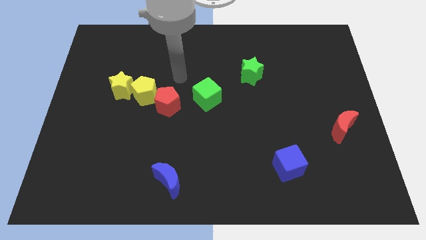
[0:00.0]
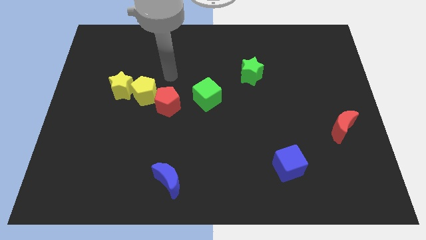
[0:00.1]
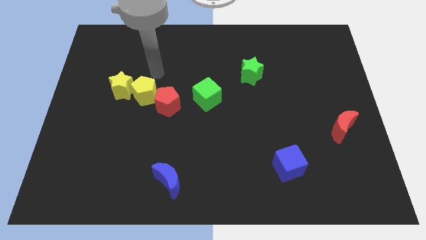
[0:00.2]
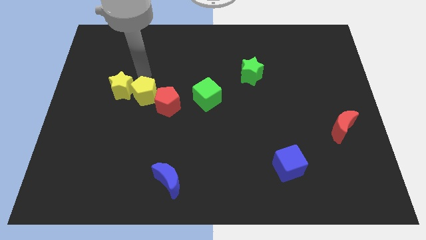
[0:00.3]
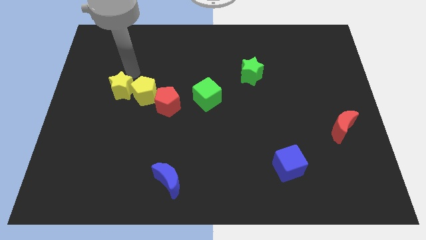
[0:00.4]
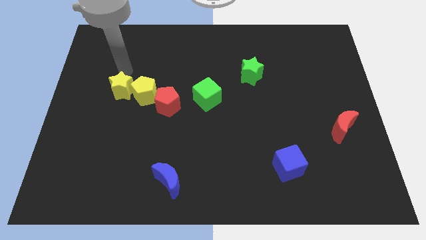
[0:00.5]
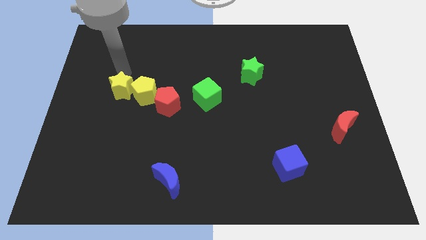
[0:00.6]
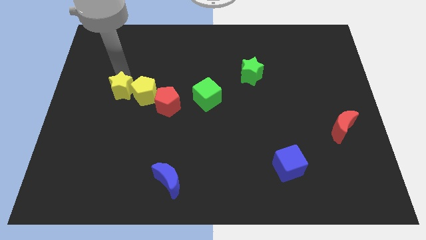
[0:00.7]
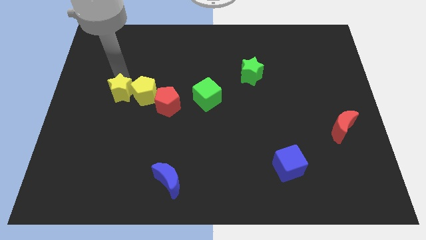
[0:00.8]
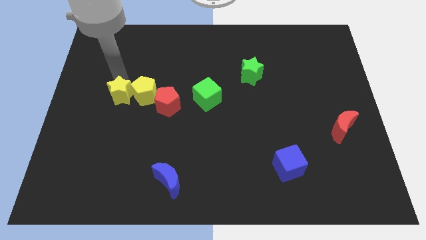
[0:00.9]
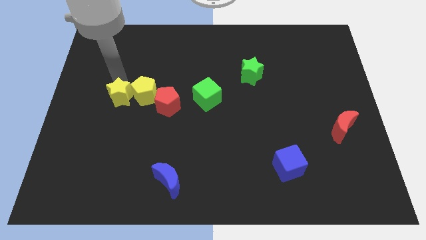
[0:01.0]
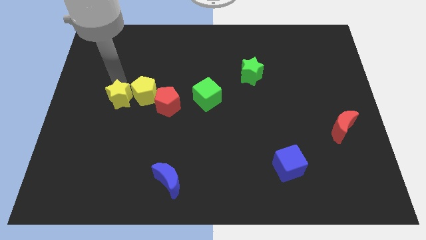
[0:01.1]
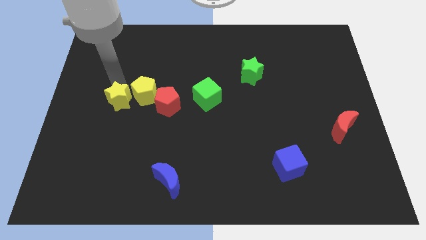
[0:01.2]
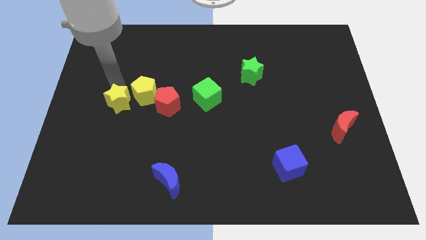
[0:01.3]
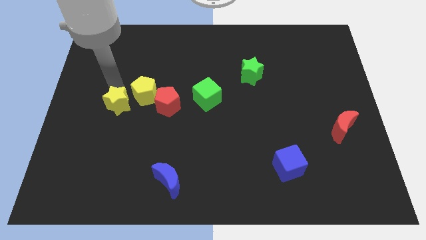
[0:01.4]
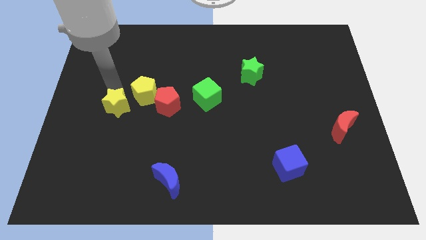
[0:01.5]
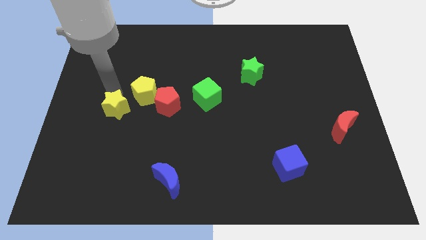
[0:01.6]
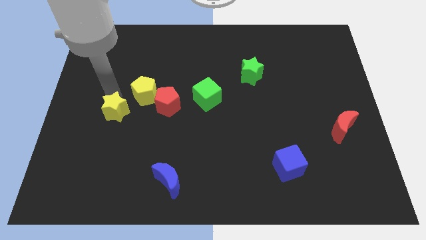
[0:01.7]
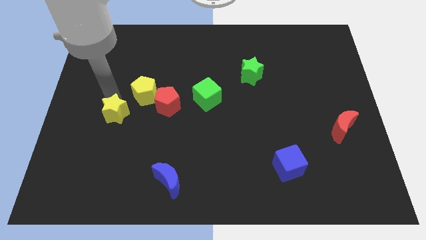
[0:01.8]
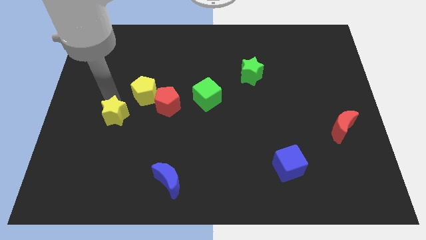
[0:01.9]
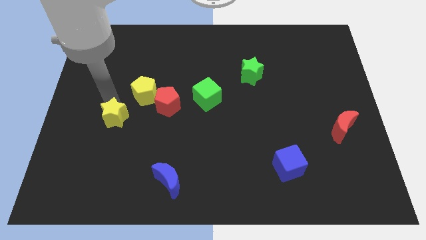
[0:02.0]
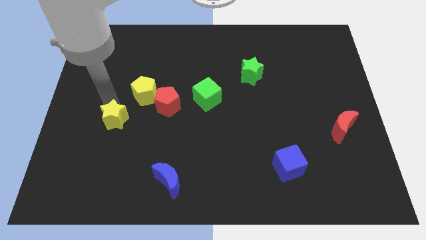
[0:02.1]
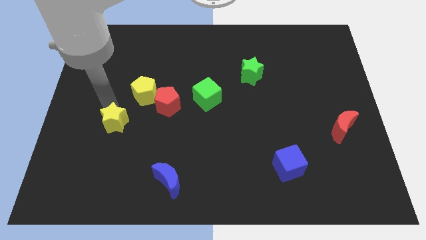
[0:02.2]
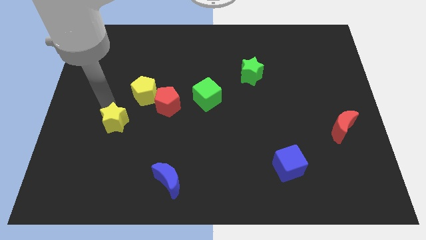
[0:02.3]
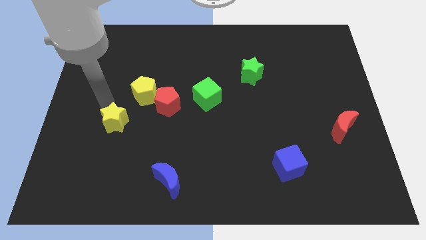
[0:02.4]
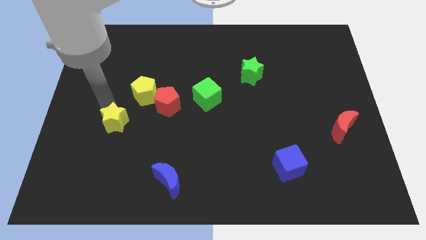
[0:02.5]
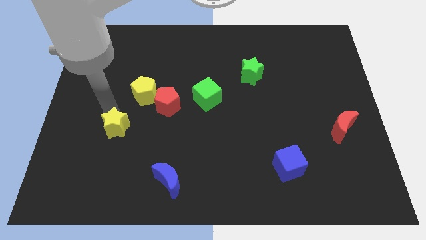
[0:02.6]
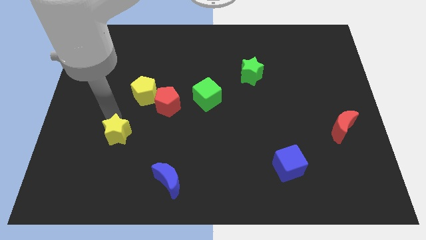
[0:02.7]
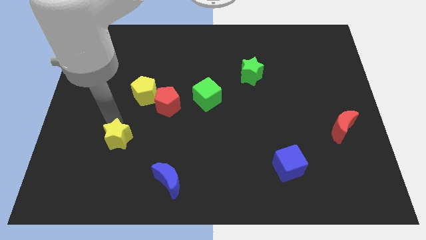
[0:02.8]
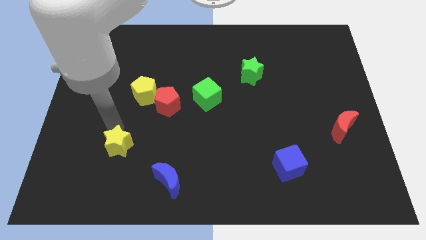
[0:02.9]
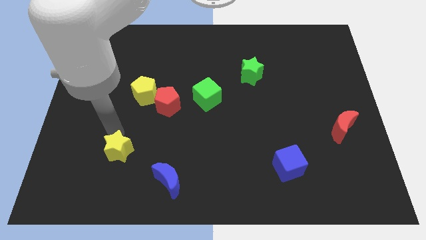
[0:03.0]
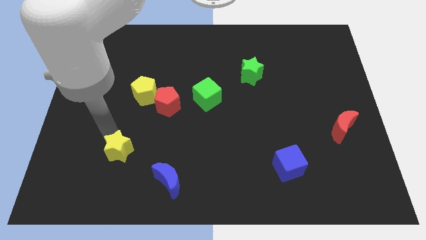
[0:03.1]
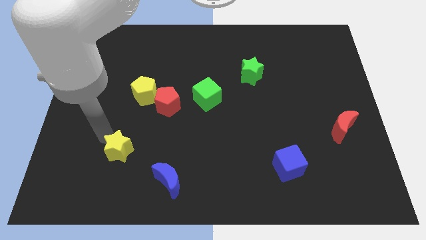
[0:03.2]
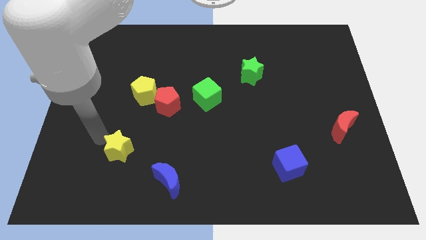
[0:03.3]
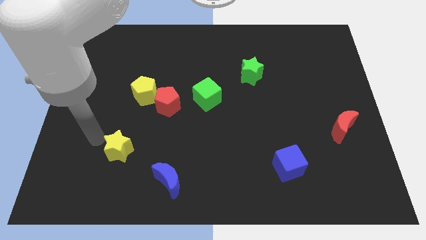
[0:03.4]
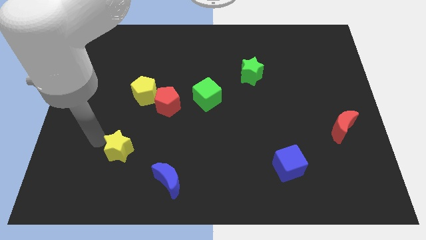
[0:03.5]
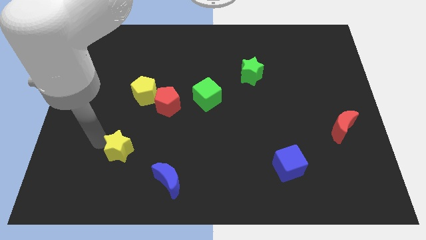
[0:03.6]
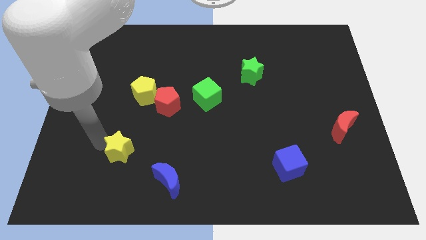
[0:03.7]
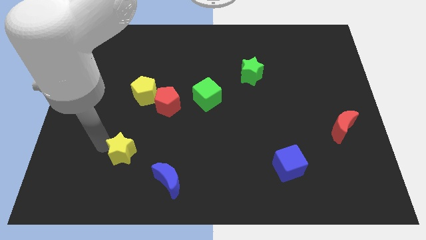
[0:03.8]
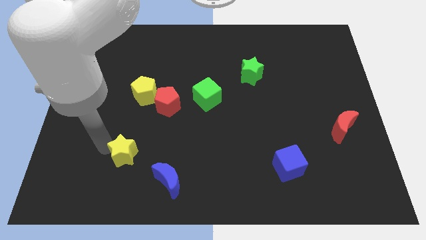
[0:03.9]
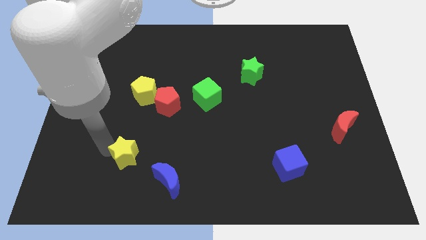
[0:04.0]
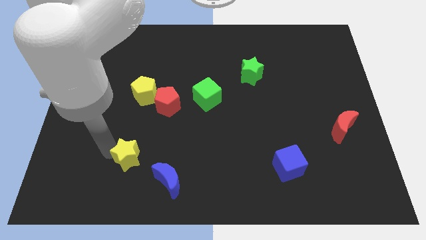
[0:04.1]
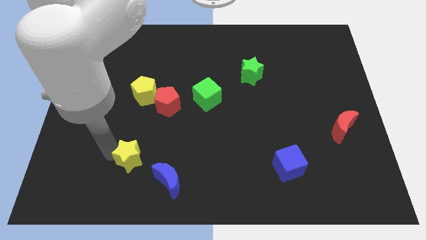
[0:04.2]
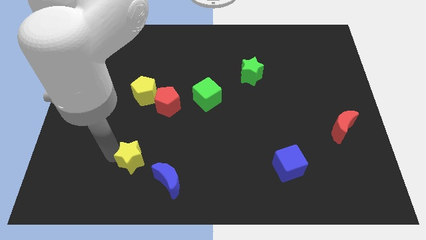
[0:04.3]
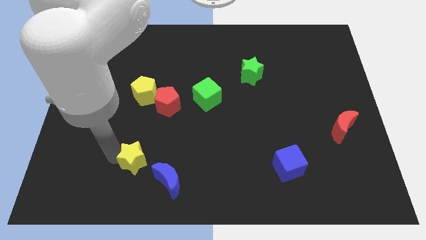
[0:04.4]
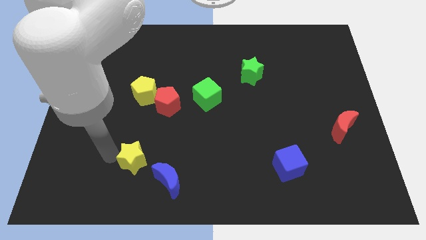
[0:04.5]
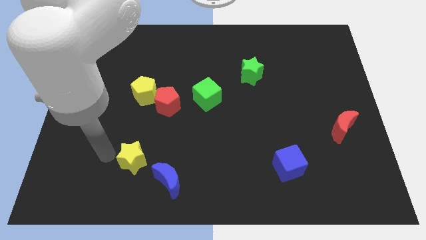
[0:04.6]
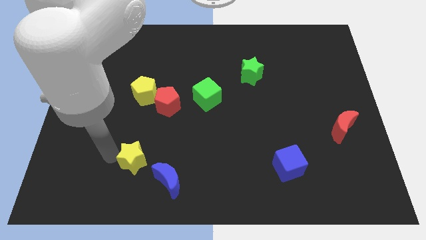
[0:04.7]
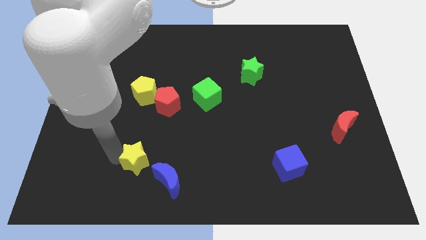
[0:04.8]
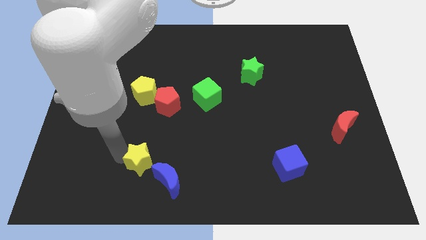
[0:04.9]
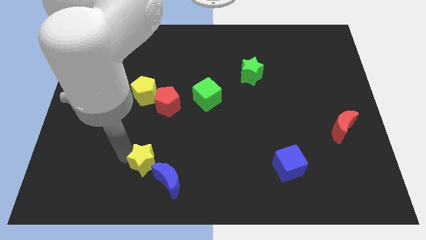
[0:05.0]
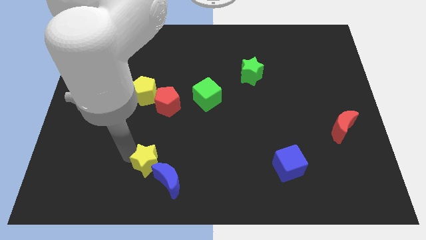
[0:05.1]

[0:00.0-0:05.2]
push the yellow star to the blue moon

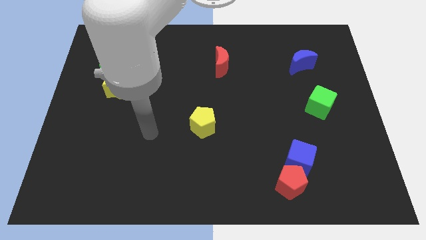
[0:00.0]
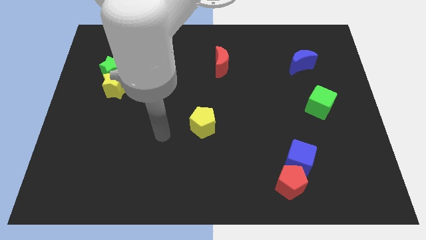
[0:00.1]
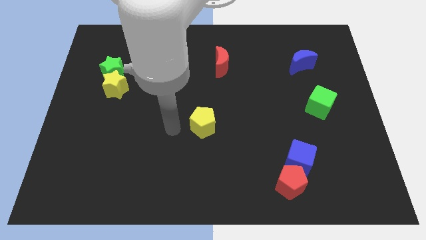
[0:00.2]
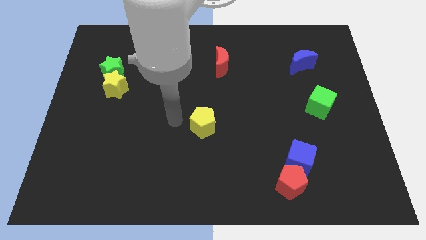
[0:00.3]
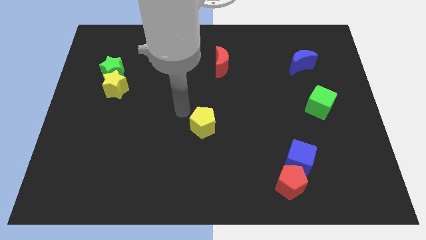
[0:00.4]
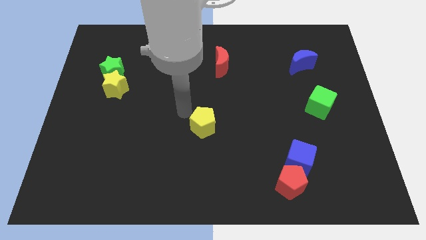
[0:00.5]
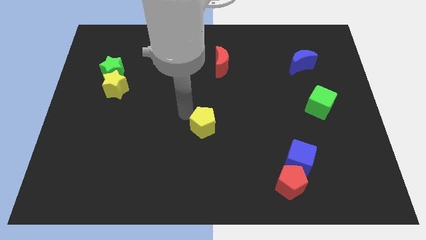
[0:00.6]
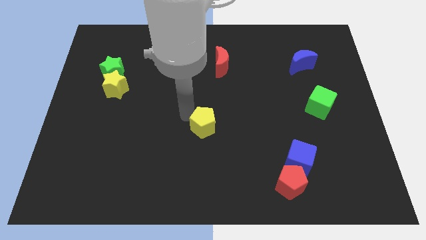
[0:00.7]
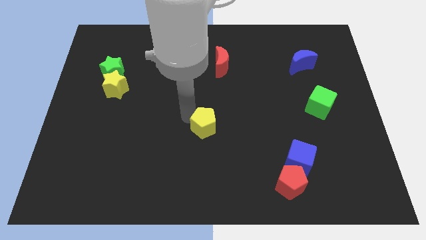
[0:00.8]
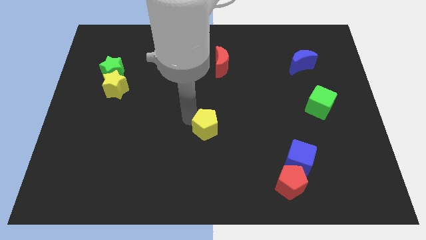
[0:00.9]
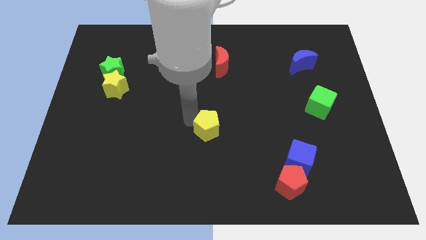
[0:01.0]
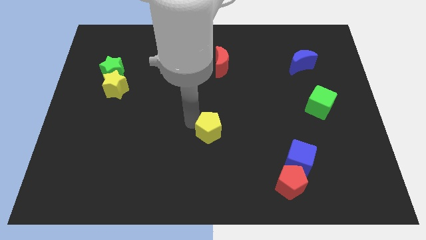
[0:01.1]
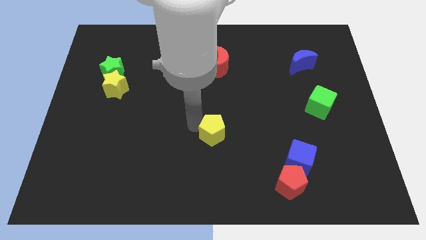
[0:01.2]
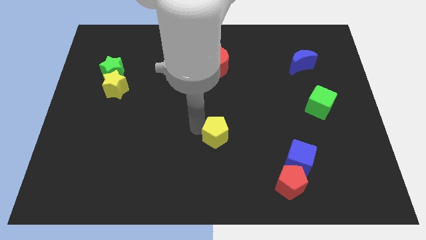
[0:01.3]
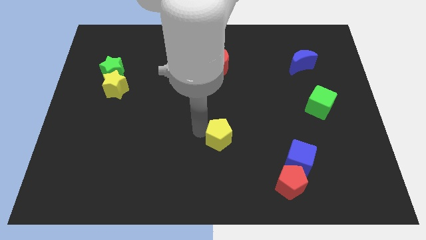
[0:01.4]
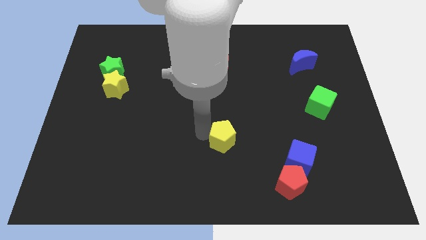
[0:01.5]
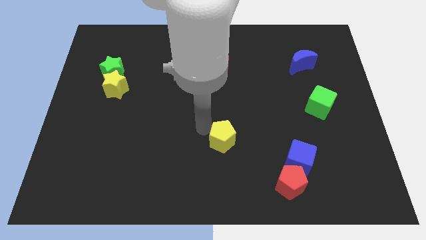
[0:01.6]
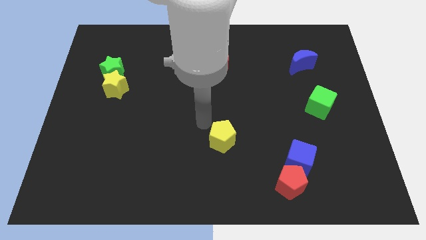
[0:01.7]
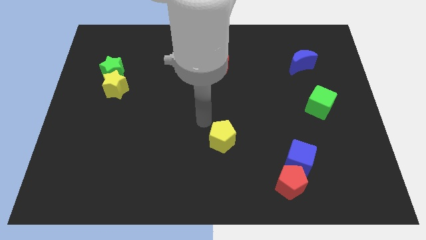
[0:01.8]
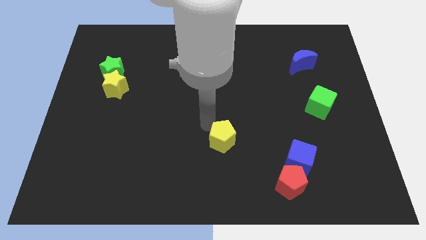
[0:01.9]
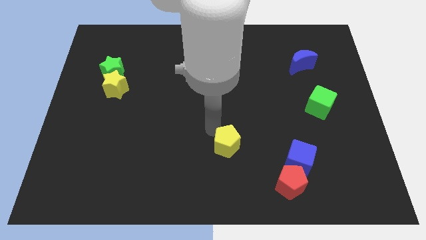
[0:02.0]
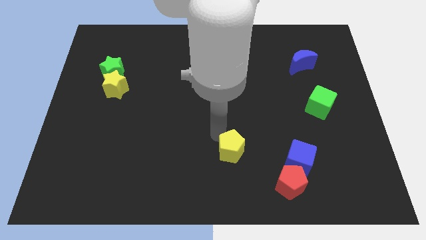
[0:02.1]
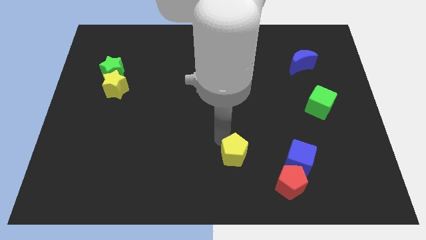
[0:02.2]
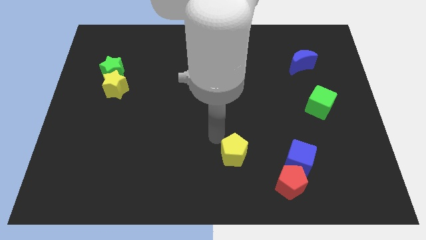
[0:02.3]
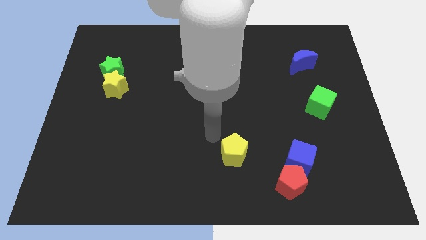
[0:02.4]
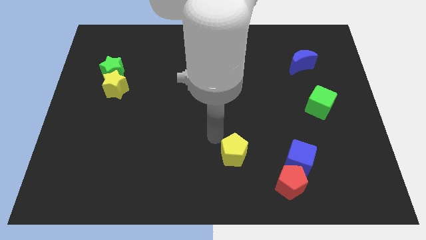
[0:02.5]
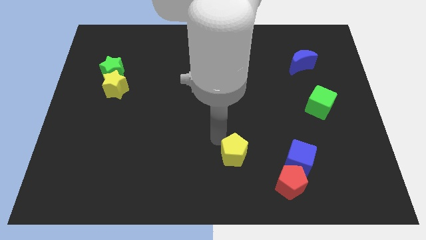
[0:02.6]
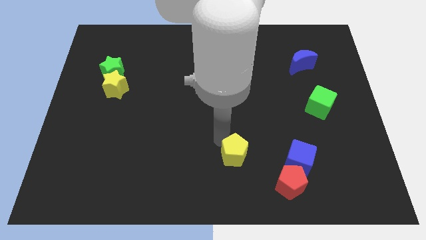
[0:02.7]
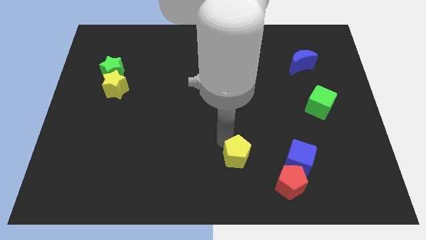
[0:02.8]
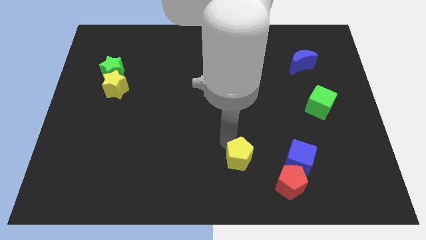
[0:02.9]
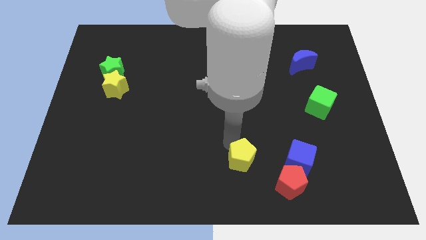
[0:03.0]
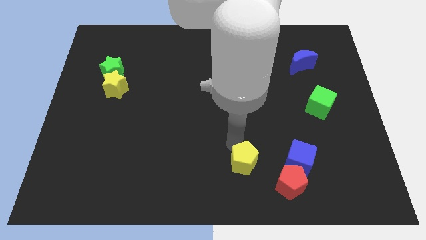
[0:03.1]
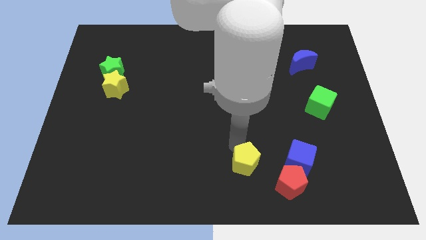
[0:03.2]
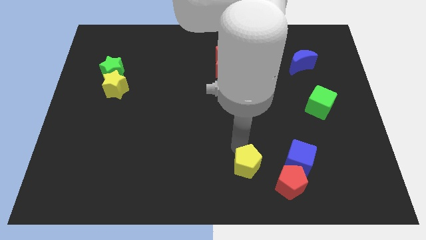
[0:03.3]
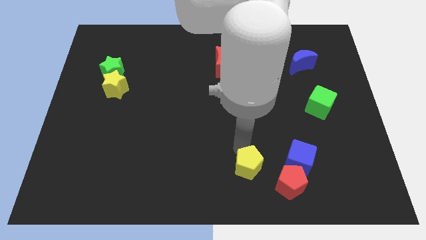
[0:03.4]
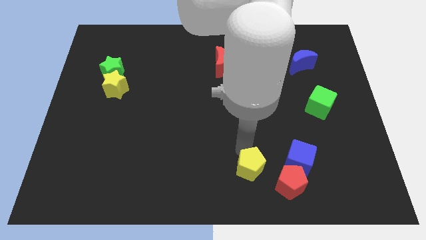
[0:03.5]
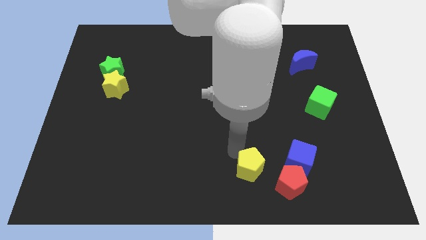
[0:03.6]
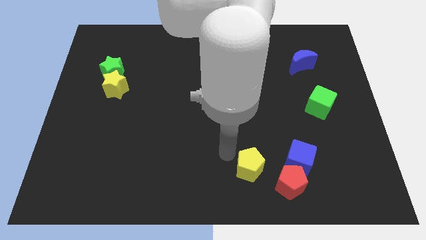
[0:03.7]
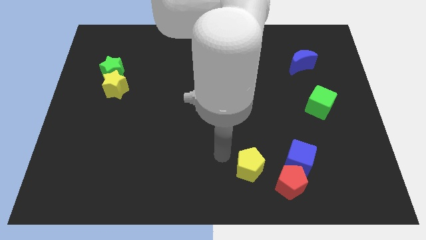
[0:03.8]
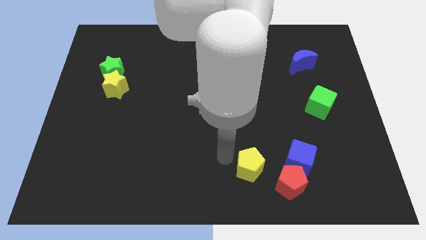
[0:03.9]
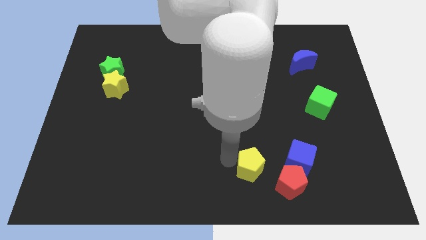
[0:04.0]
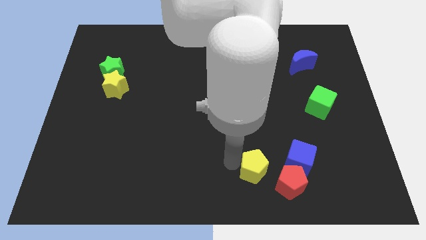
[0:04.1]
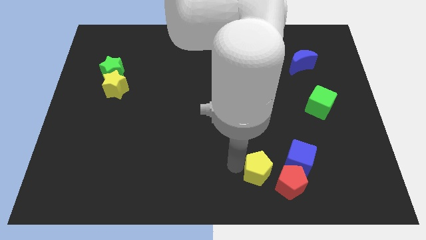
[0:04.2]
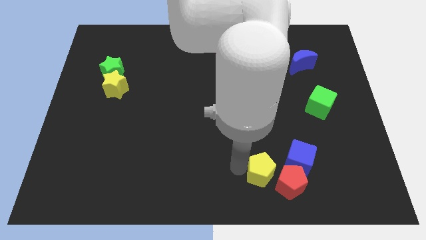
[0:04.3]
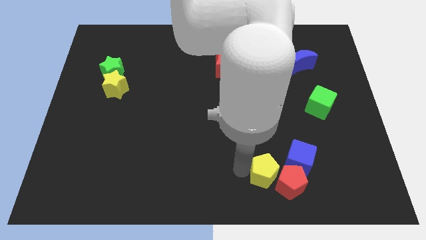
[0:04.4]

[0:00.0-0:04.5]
put the yellow pentagon towards the red pentagon
